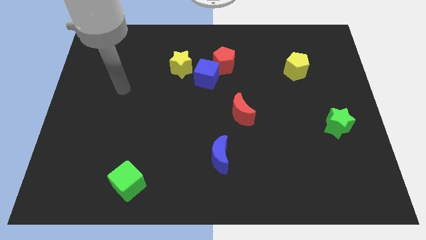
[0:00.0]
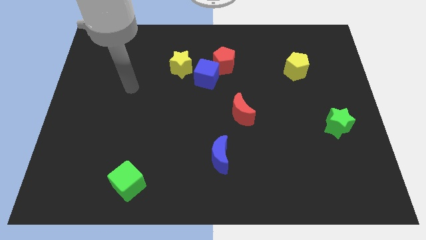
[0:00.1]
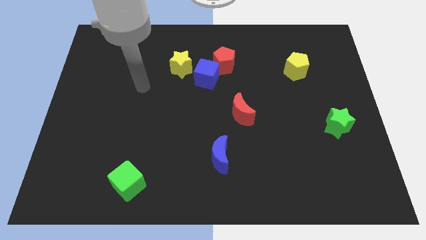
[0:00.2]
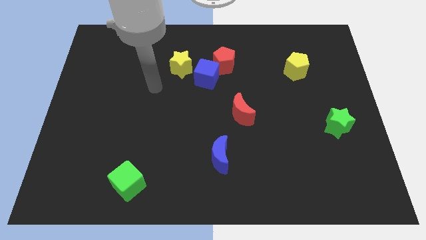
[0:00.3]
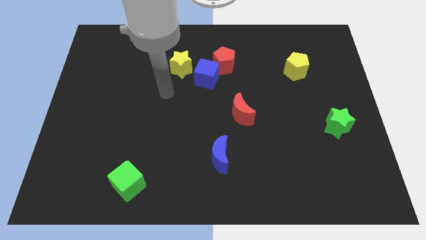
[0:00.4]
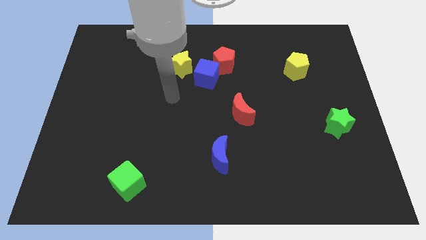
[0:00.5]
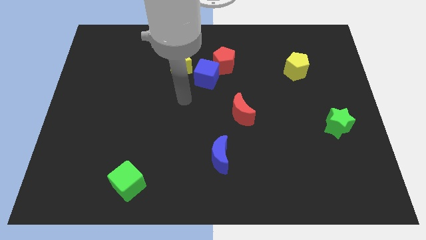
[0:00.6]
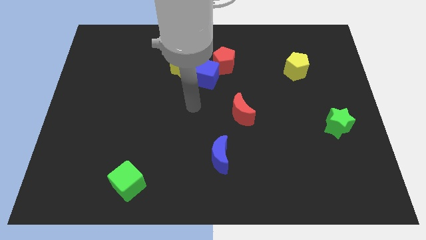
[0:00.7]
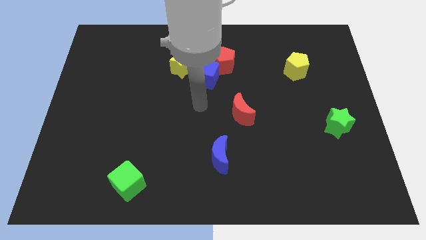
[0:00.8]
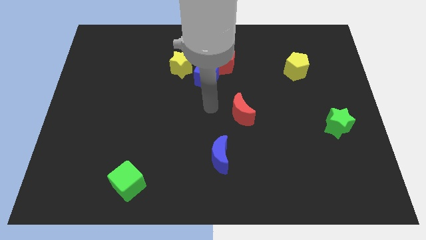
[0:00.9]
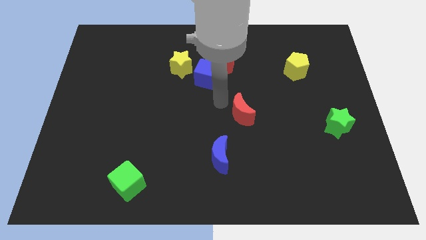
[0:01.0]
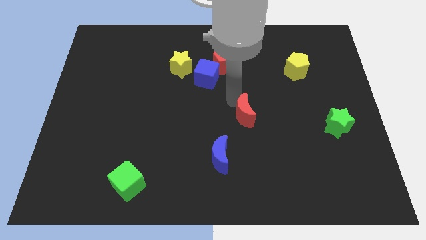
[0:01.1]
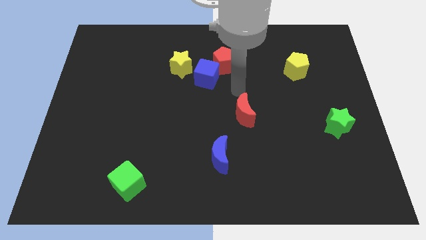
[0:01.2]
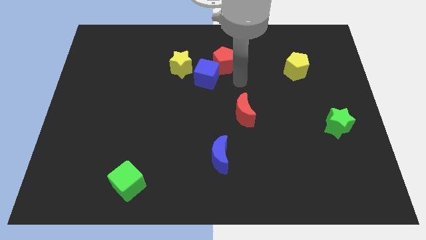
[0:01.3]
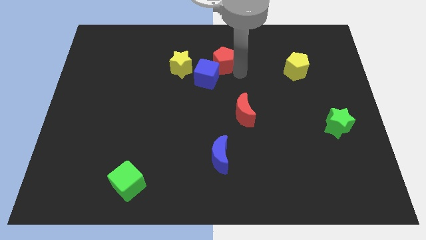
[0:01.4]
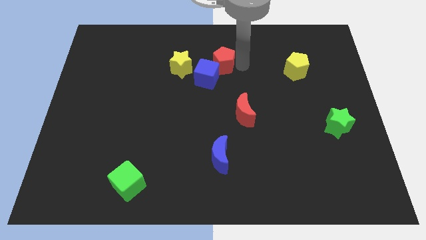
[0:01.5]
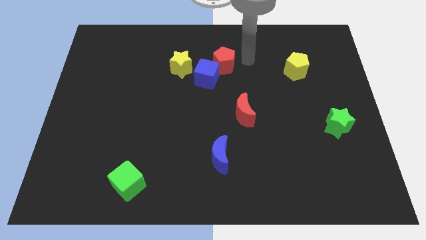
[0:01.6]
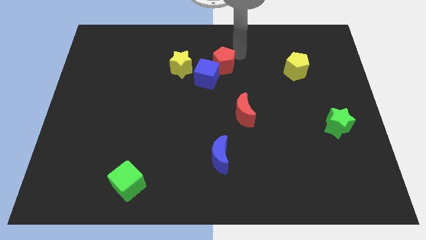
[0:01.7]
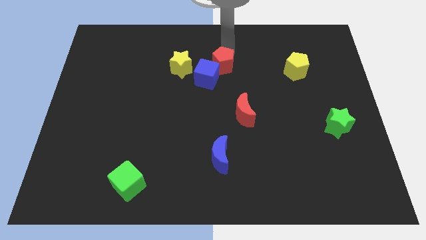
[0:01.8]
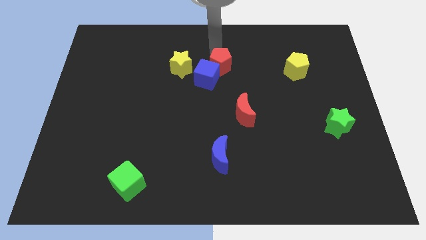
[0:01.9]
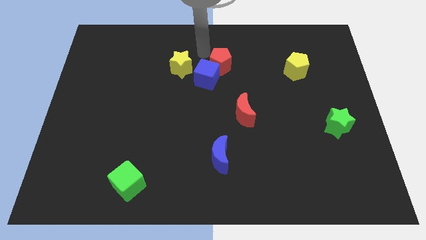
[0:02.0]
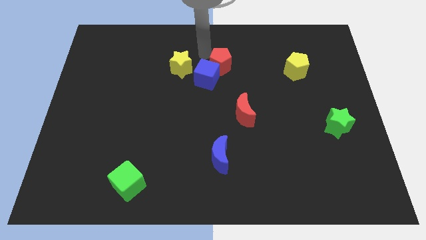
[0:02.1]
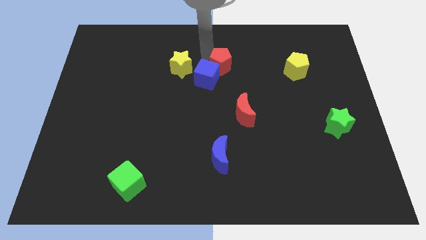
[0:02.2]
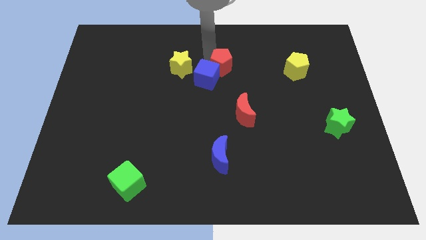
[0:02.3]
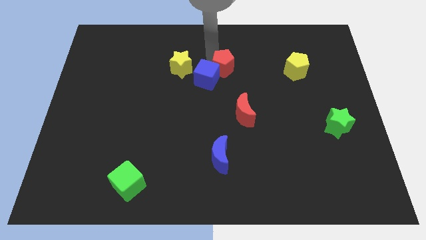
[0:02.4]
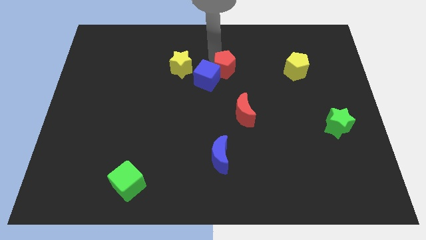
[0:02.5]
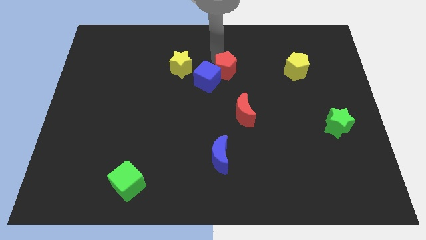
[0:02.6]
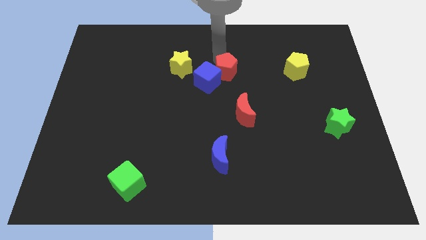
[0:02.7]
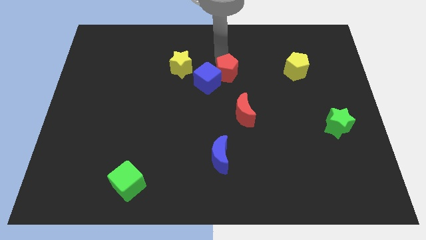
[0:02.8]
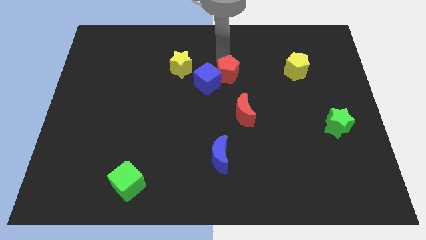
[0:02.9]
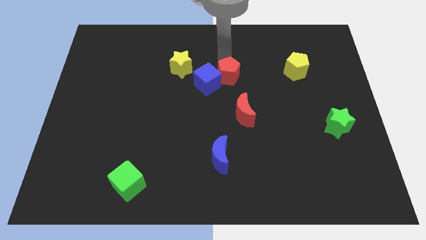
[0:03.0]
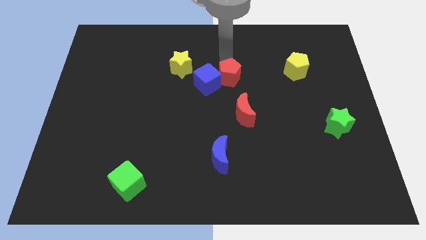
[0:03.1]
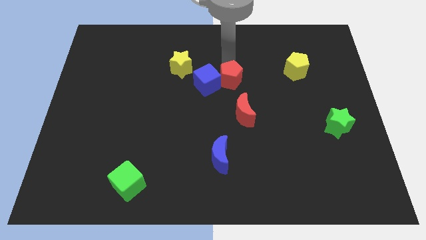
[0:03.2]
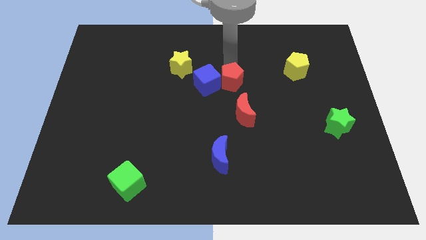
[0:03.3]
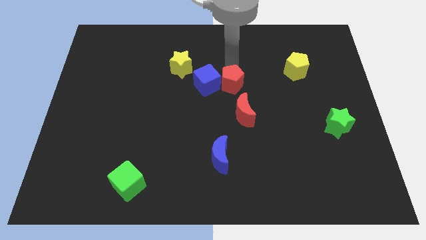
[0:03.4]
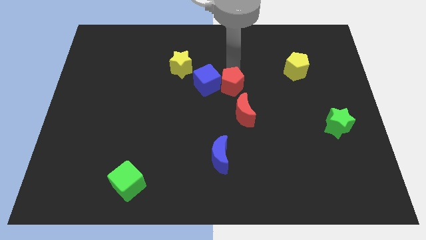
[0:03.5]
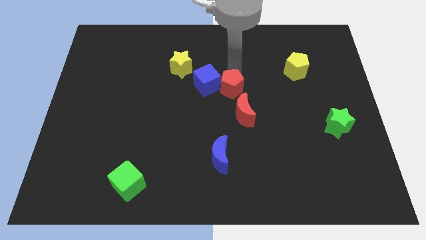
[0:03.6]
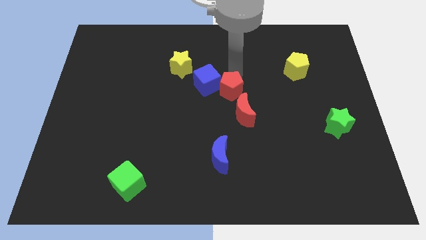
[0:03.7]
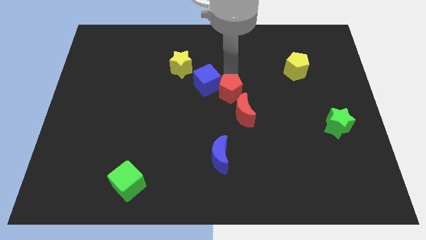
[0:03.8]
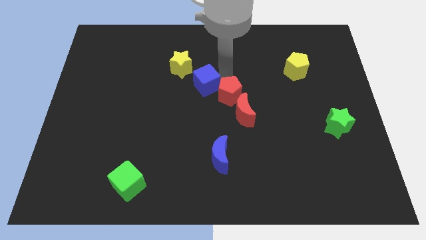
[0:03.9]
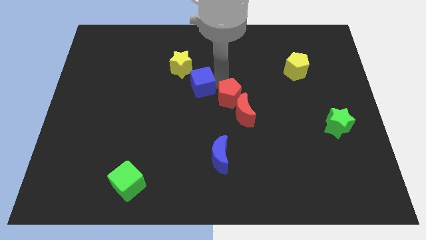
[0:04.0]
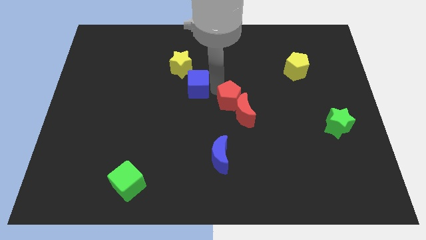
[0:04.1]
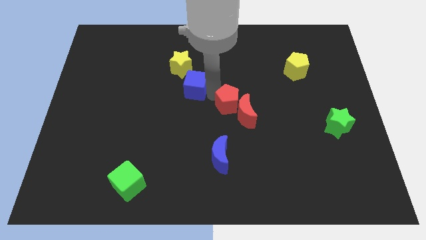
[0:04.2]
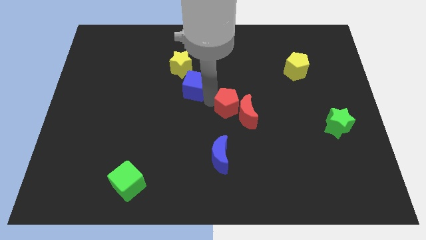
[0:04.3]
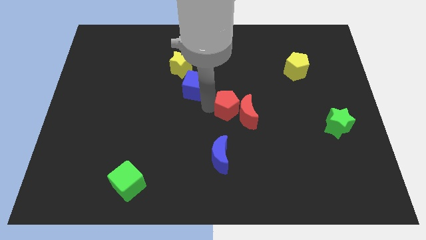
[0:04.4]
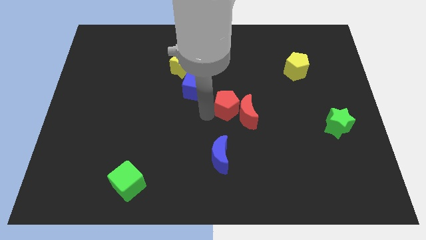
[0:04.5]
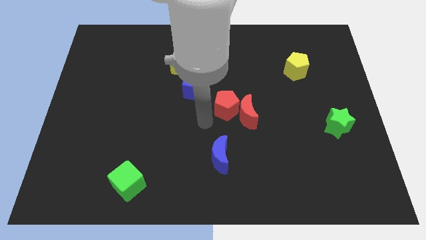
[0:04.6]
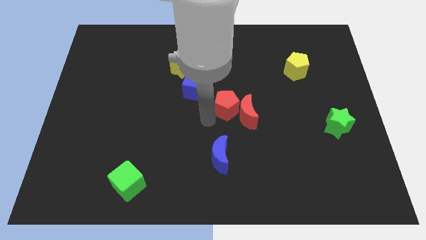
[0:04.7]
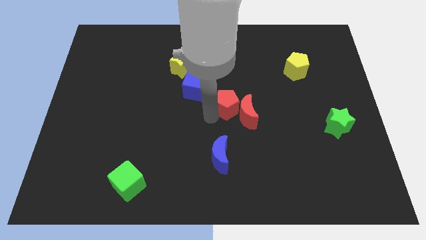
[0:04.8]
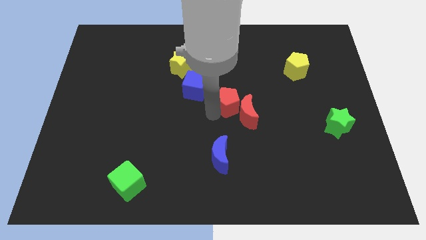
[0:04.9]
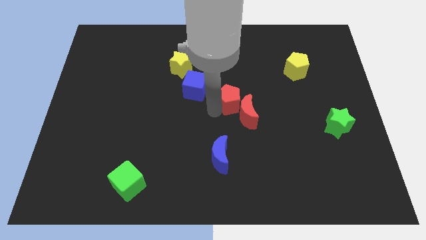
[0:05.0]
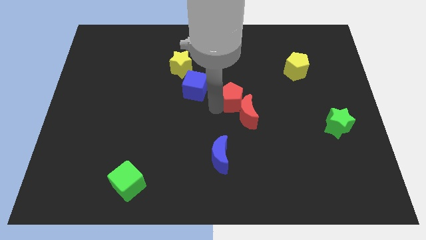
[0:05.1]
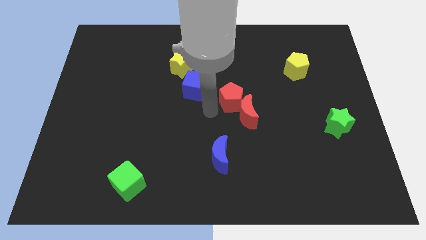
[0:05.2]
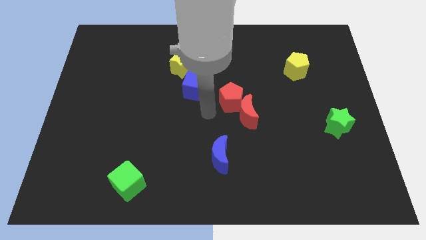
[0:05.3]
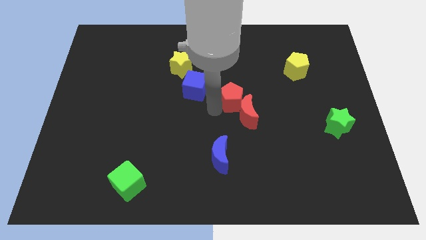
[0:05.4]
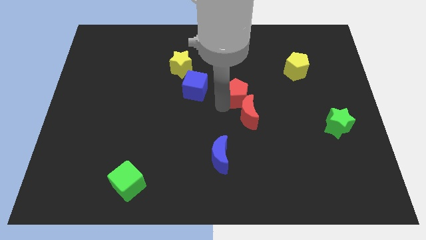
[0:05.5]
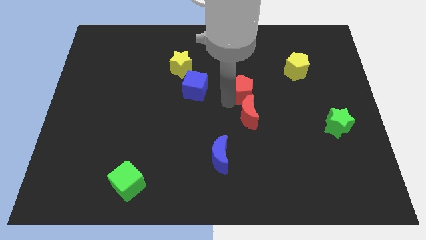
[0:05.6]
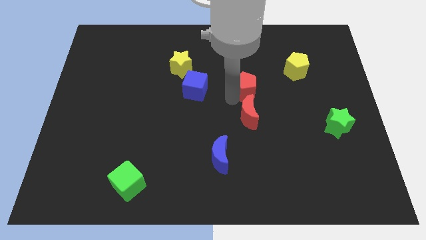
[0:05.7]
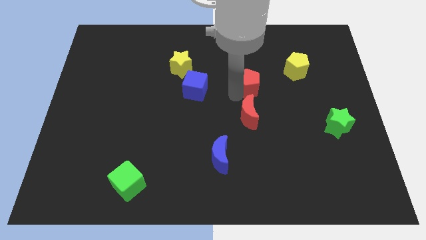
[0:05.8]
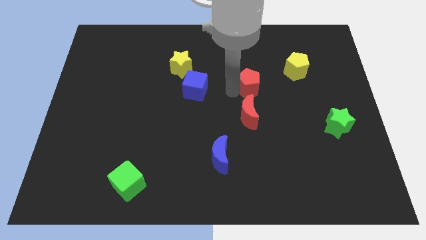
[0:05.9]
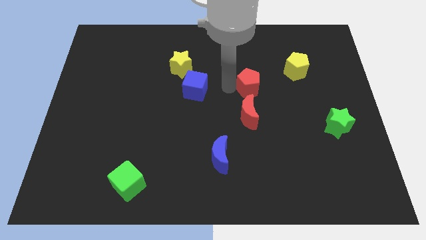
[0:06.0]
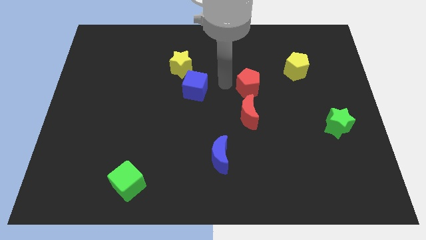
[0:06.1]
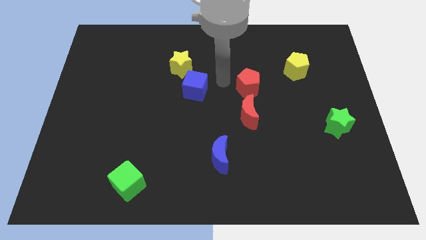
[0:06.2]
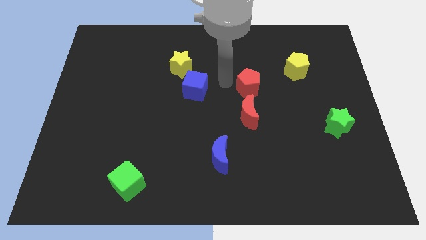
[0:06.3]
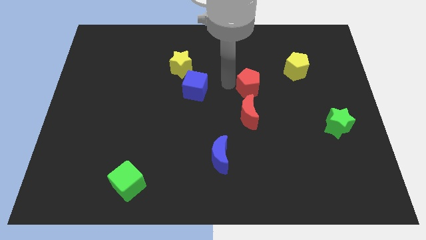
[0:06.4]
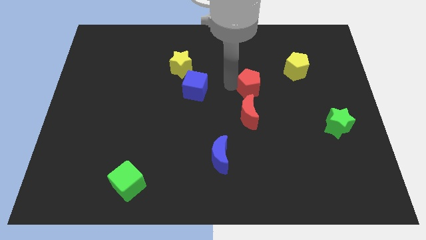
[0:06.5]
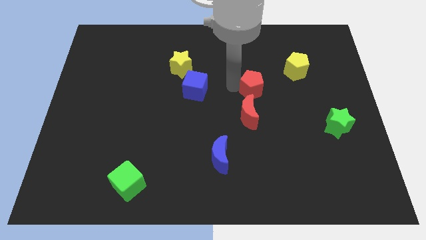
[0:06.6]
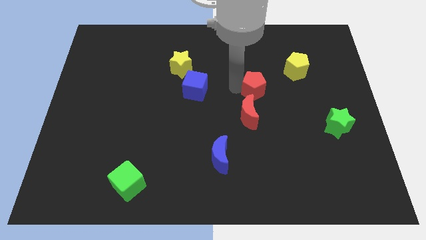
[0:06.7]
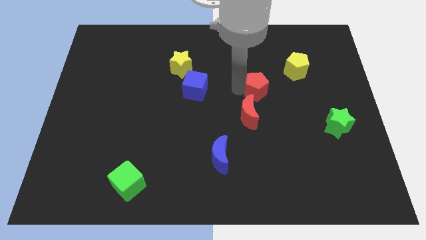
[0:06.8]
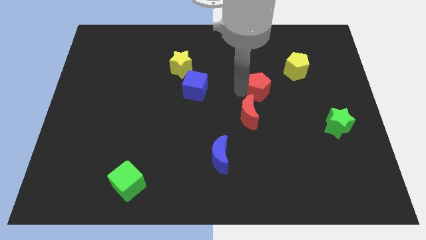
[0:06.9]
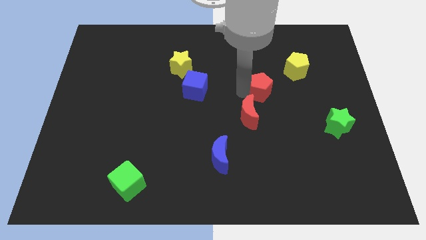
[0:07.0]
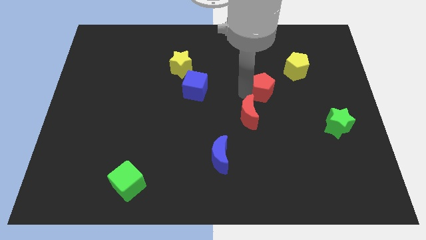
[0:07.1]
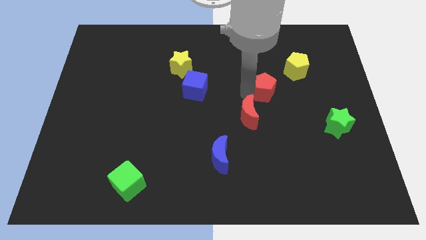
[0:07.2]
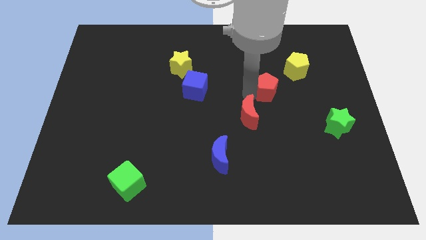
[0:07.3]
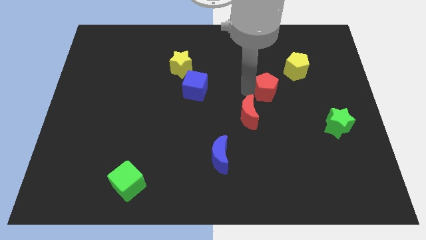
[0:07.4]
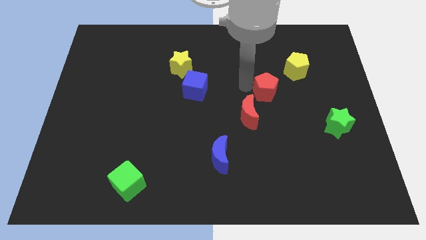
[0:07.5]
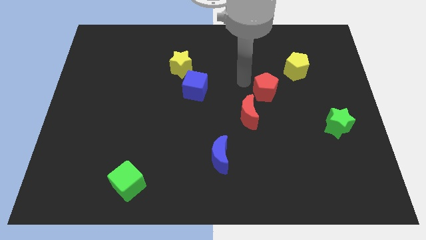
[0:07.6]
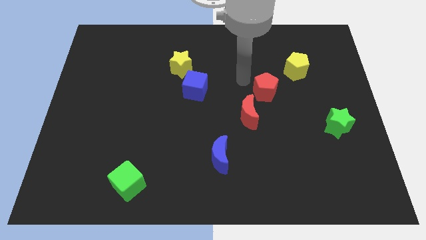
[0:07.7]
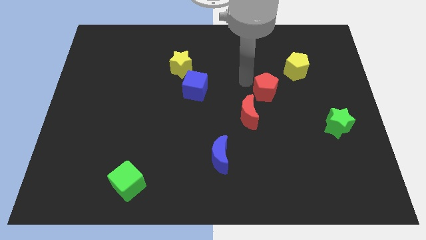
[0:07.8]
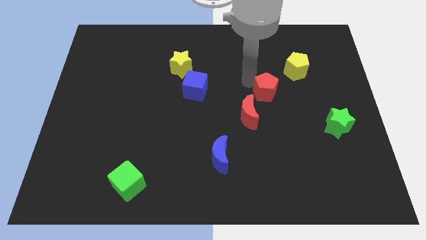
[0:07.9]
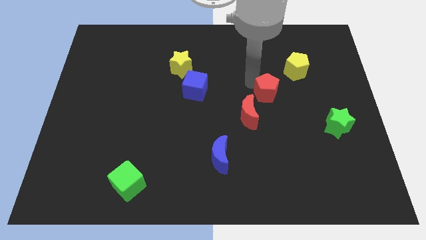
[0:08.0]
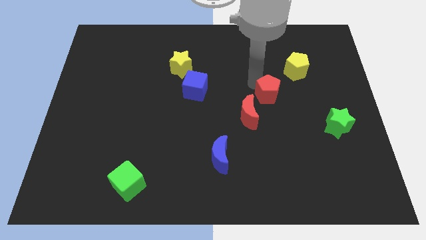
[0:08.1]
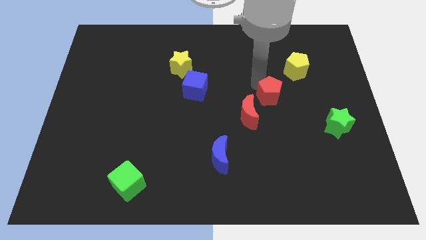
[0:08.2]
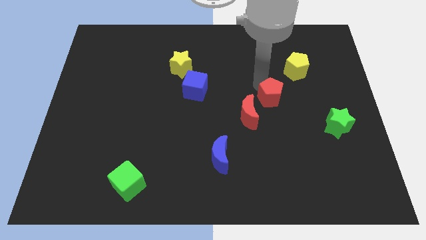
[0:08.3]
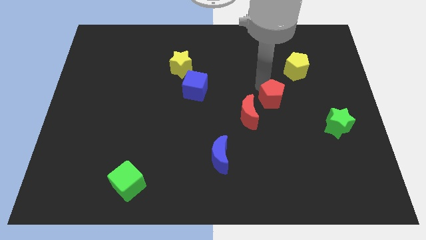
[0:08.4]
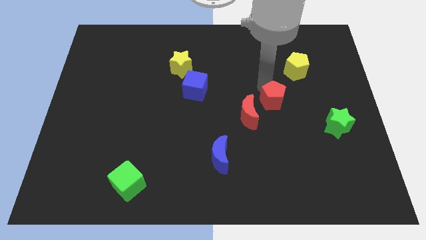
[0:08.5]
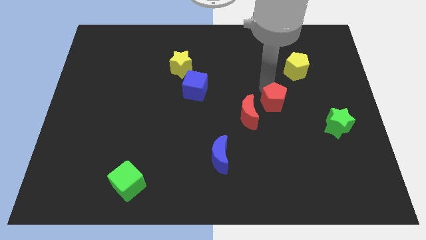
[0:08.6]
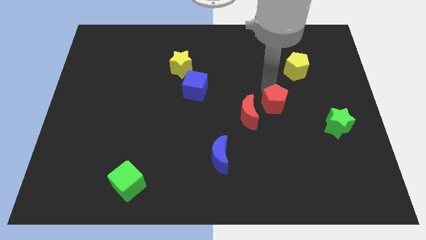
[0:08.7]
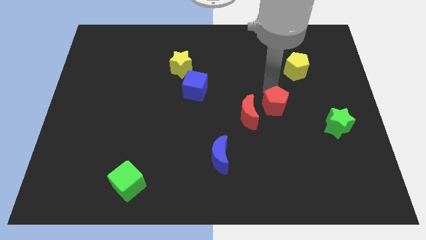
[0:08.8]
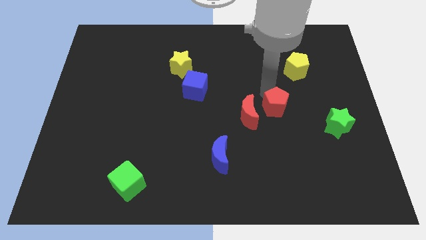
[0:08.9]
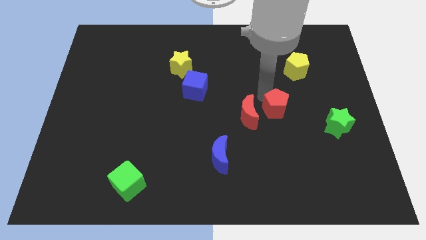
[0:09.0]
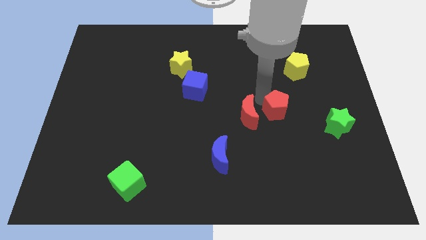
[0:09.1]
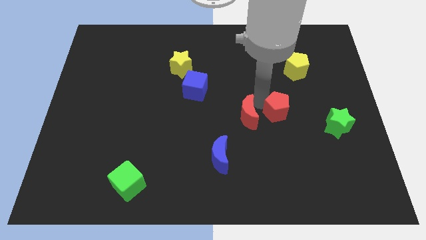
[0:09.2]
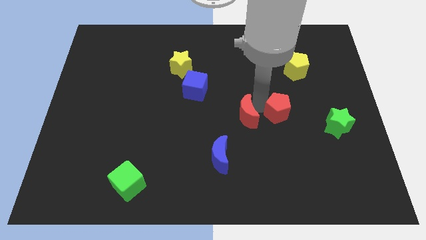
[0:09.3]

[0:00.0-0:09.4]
push the red pentagon downwards and right
